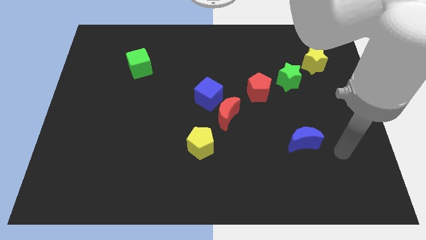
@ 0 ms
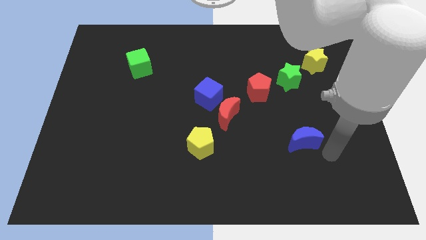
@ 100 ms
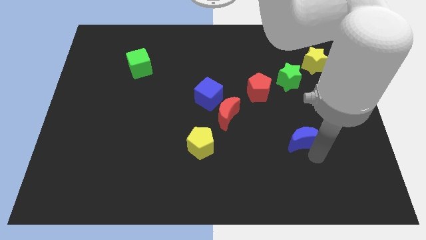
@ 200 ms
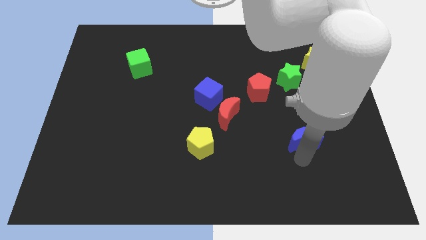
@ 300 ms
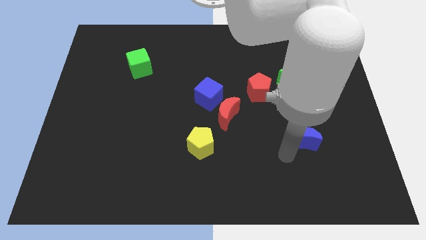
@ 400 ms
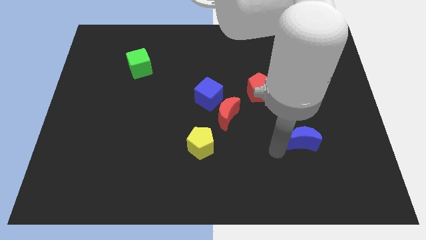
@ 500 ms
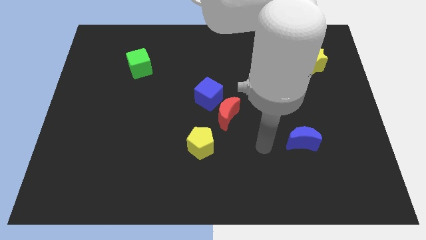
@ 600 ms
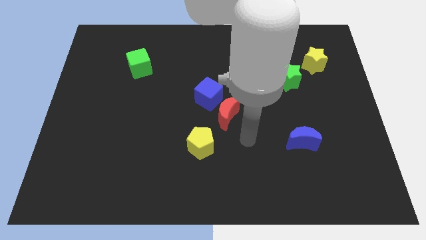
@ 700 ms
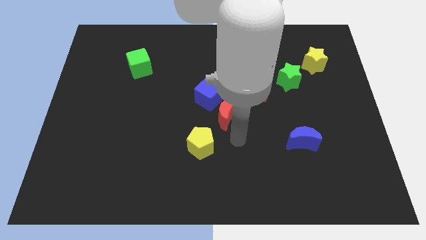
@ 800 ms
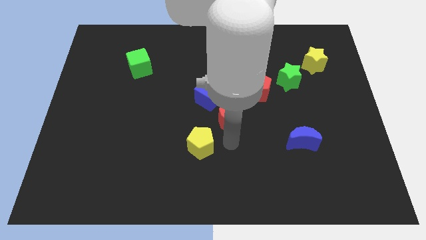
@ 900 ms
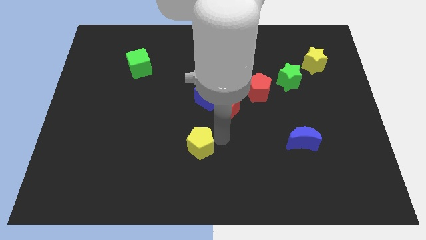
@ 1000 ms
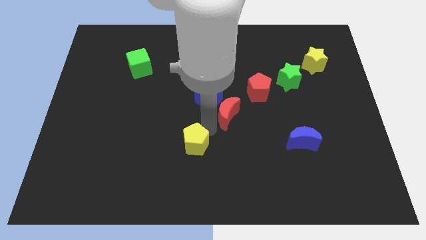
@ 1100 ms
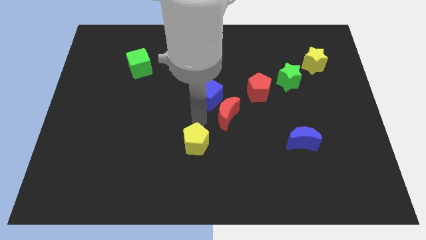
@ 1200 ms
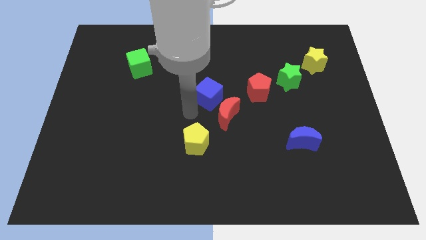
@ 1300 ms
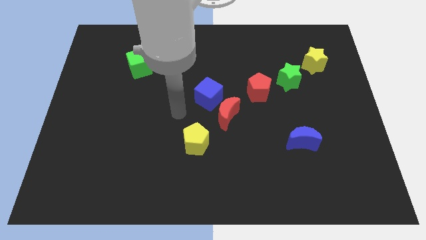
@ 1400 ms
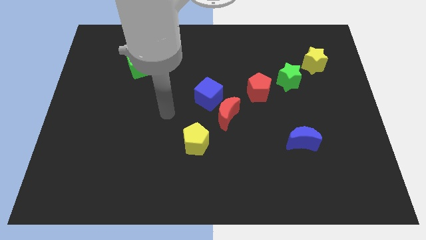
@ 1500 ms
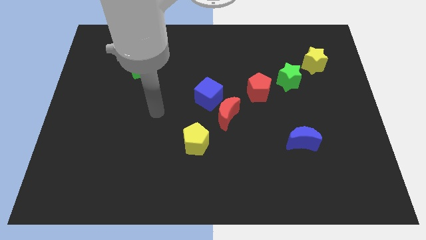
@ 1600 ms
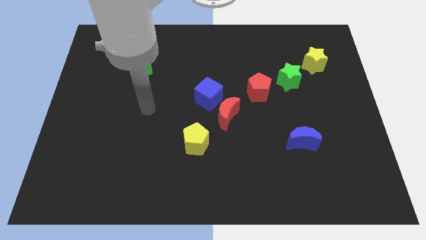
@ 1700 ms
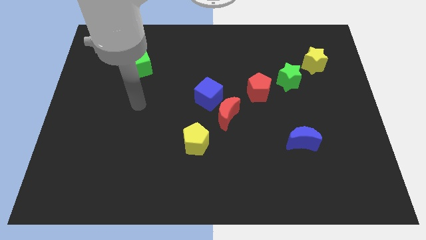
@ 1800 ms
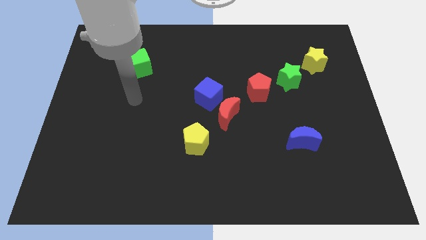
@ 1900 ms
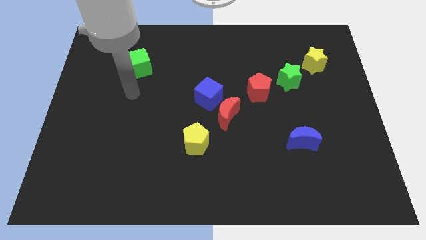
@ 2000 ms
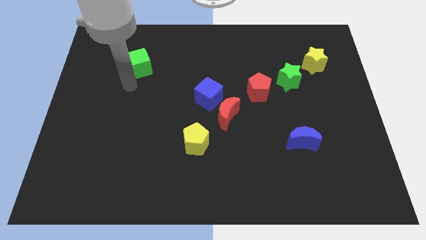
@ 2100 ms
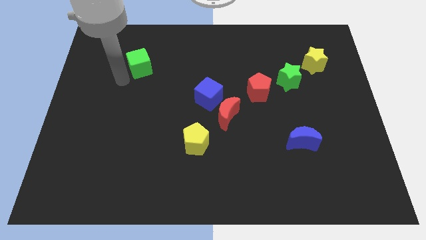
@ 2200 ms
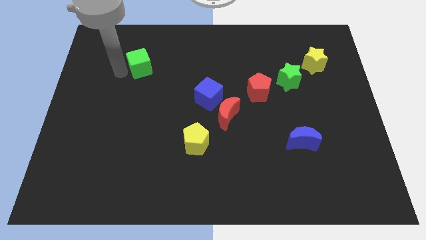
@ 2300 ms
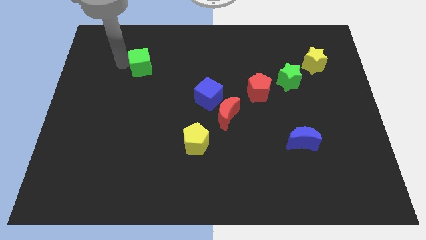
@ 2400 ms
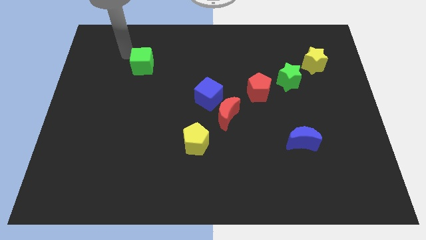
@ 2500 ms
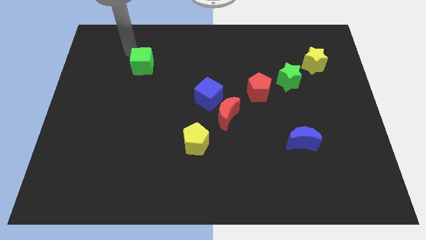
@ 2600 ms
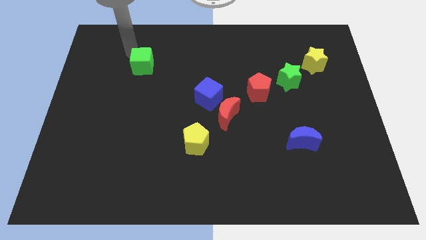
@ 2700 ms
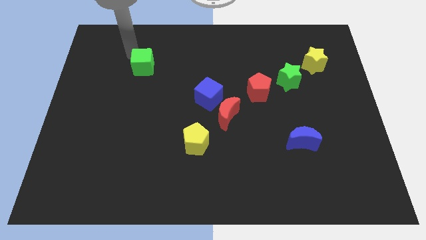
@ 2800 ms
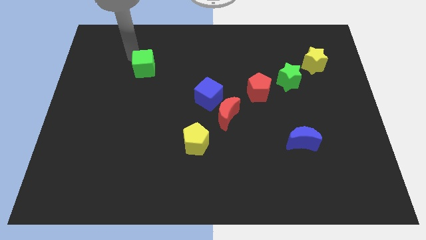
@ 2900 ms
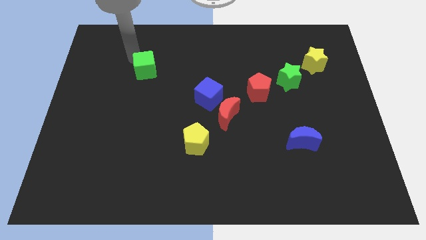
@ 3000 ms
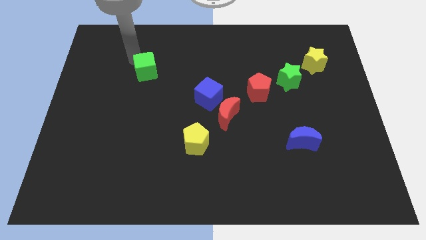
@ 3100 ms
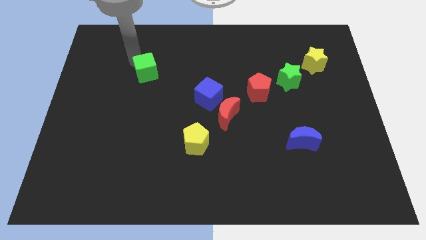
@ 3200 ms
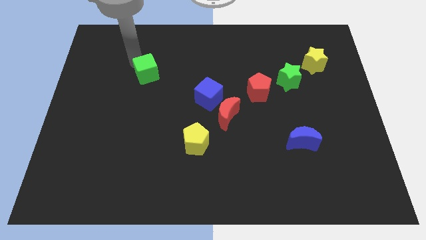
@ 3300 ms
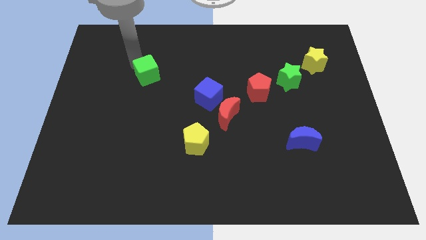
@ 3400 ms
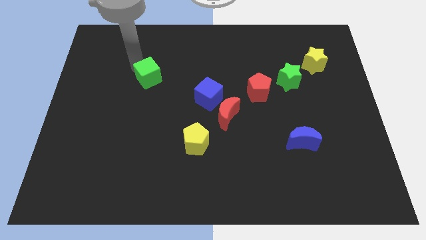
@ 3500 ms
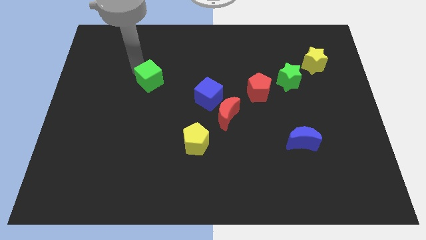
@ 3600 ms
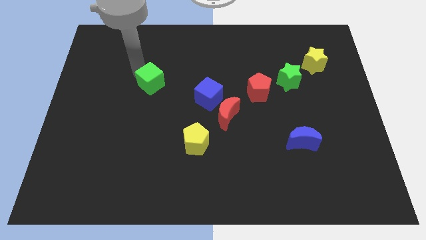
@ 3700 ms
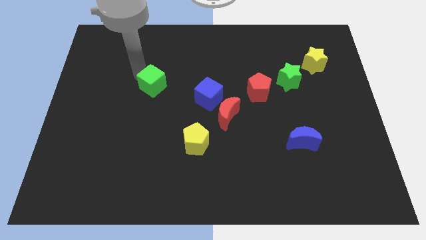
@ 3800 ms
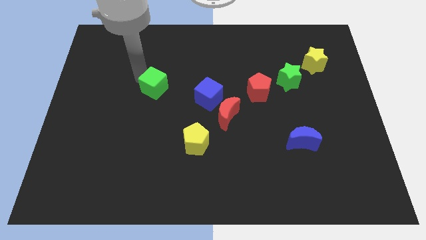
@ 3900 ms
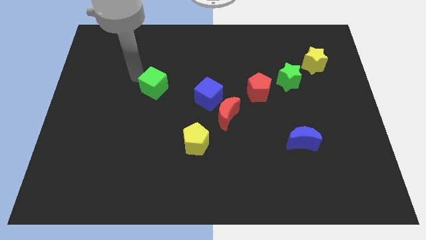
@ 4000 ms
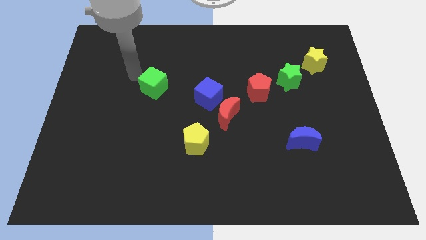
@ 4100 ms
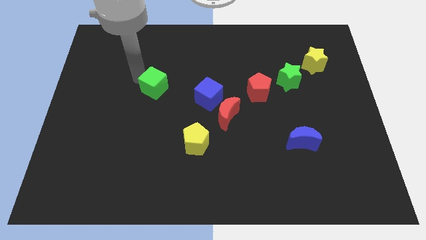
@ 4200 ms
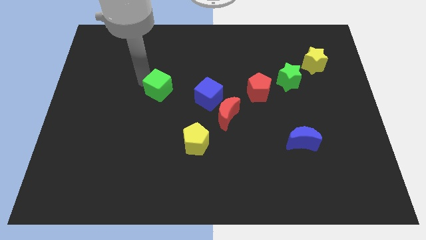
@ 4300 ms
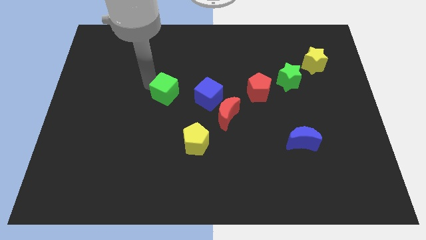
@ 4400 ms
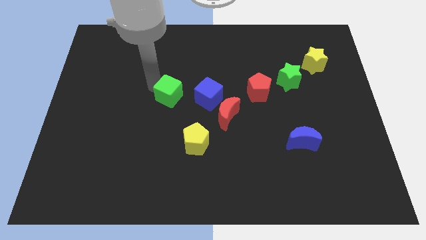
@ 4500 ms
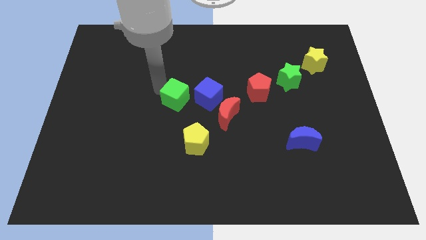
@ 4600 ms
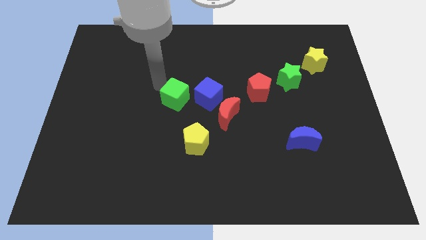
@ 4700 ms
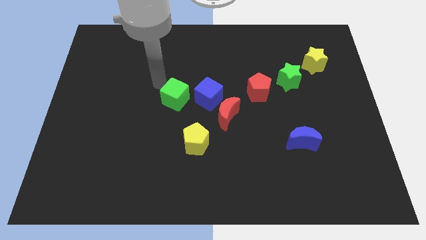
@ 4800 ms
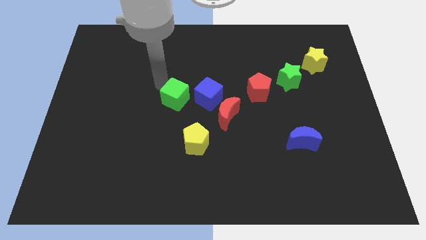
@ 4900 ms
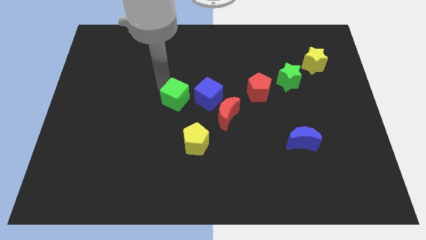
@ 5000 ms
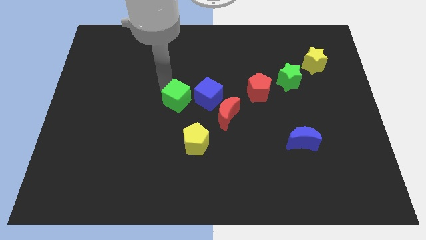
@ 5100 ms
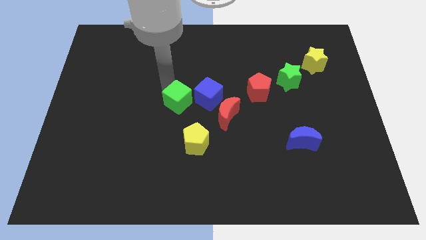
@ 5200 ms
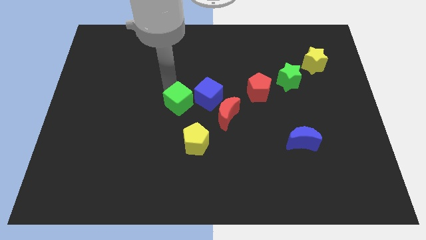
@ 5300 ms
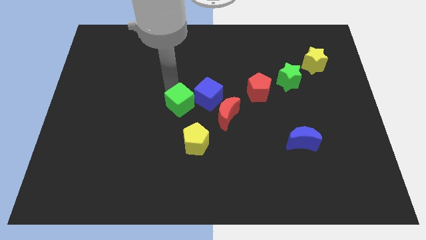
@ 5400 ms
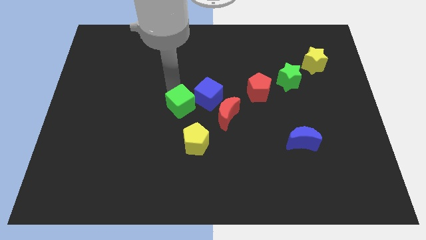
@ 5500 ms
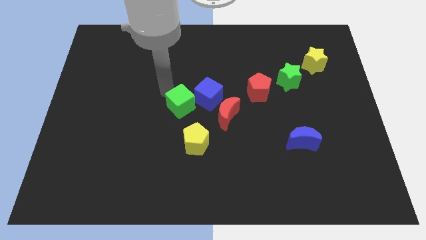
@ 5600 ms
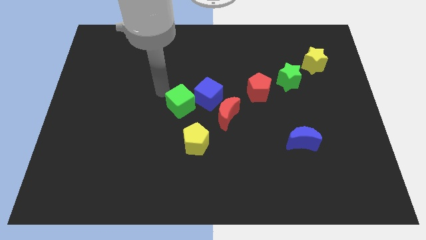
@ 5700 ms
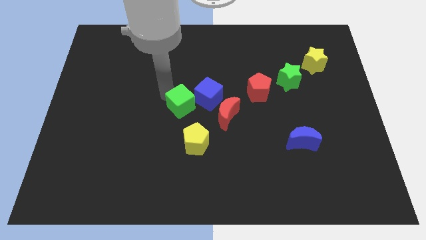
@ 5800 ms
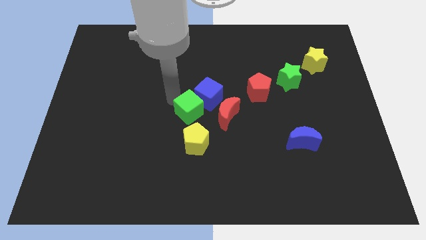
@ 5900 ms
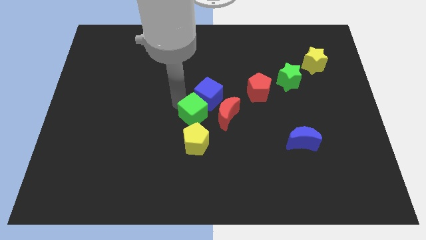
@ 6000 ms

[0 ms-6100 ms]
move the green cube down and right

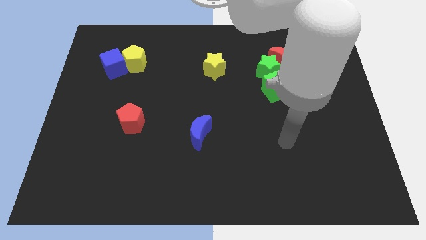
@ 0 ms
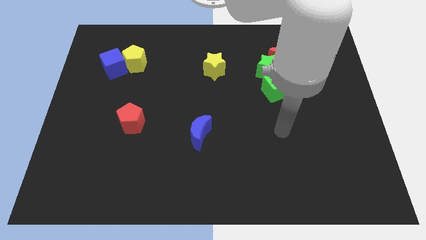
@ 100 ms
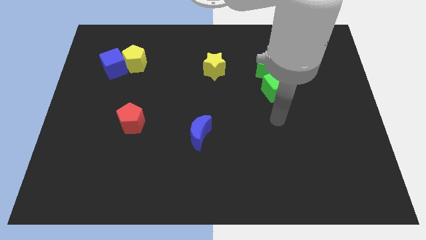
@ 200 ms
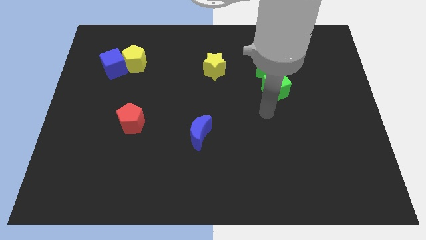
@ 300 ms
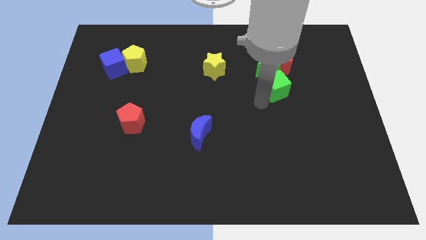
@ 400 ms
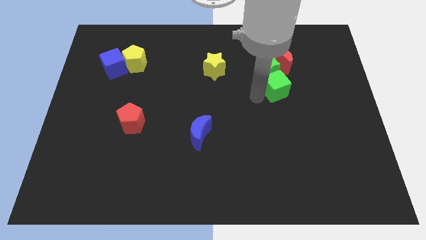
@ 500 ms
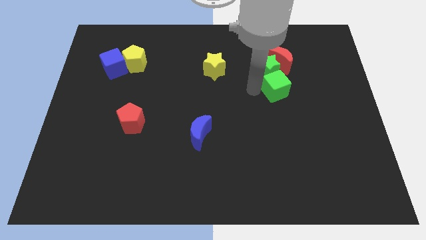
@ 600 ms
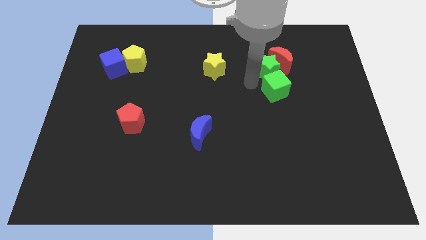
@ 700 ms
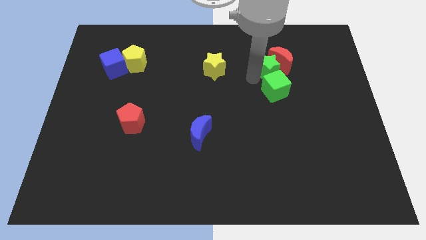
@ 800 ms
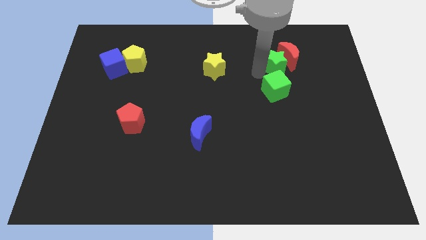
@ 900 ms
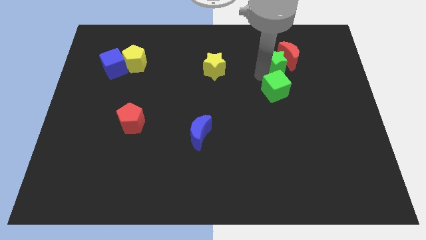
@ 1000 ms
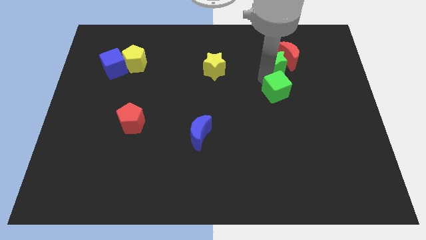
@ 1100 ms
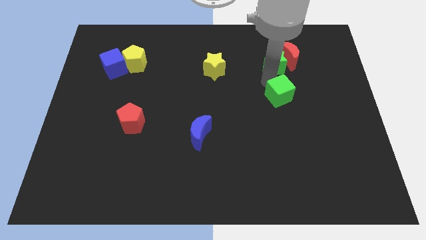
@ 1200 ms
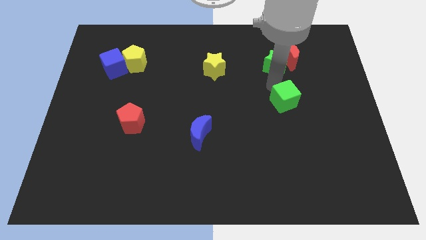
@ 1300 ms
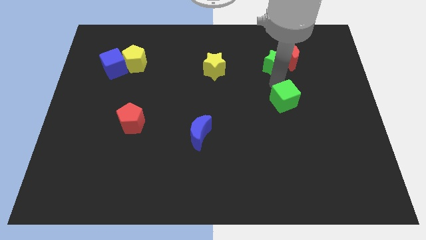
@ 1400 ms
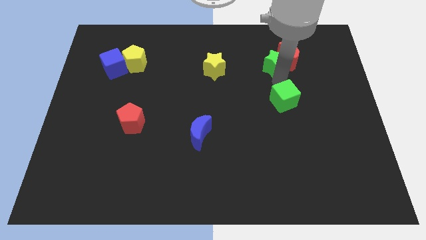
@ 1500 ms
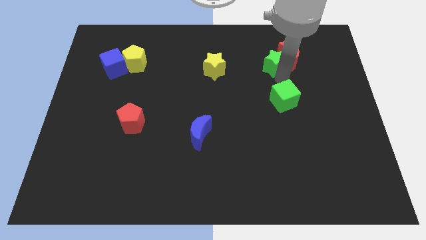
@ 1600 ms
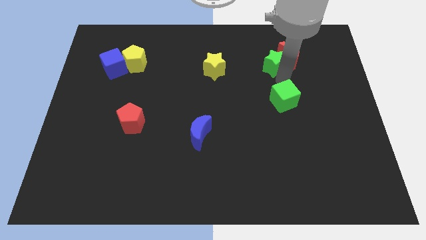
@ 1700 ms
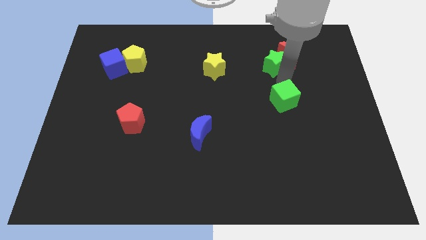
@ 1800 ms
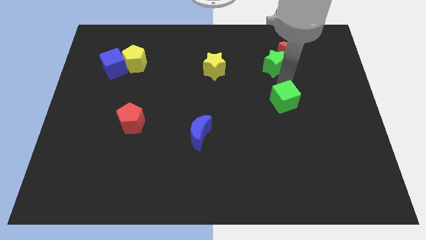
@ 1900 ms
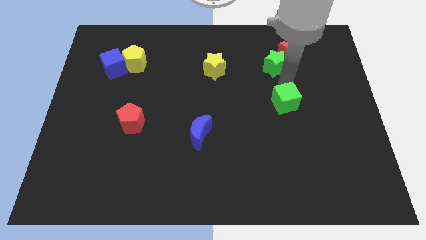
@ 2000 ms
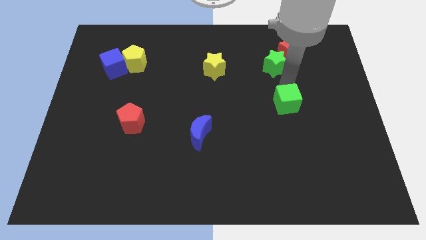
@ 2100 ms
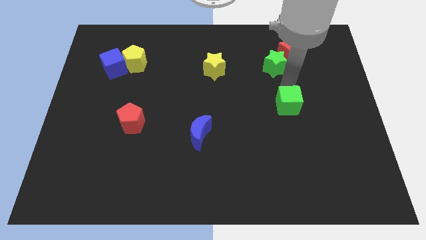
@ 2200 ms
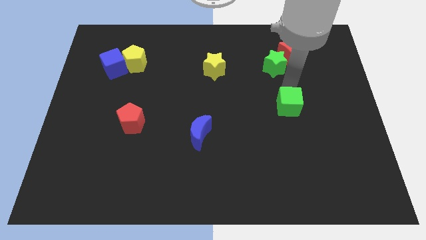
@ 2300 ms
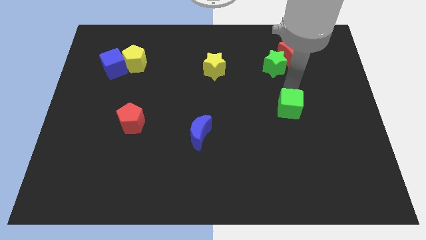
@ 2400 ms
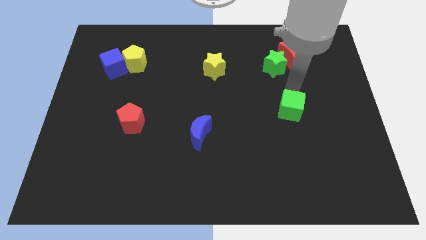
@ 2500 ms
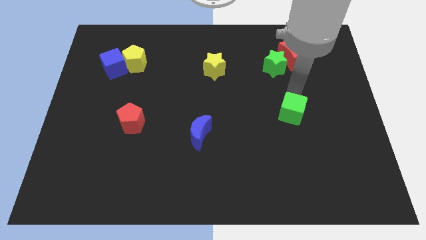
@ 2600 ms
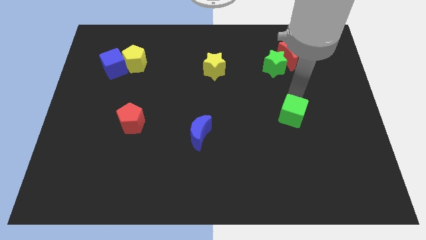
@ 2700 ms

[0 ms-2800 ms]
push the green cube downwards slightly
